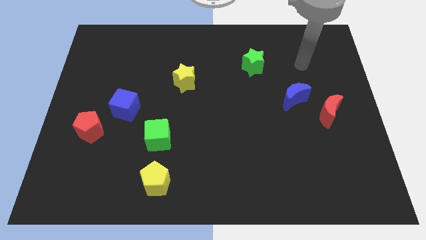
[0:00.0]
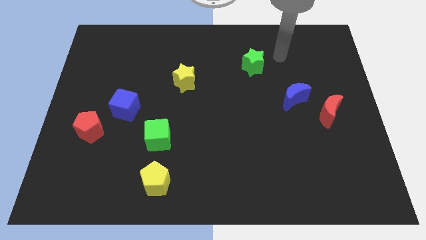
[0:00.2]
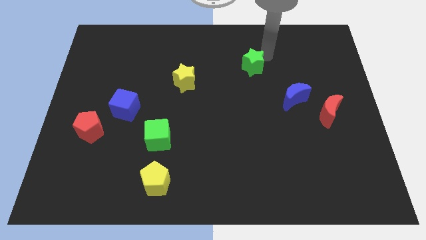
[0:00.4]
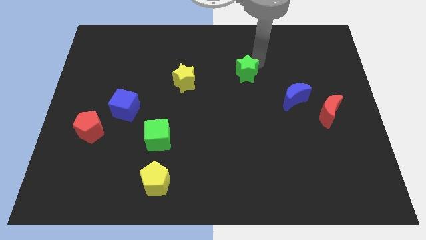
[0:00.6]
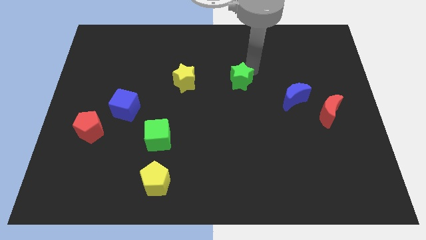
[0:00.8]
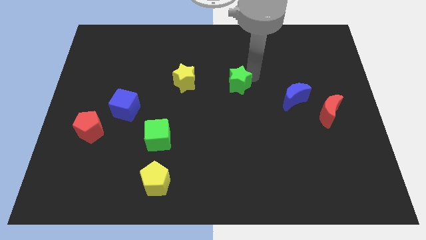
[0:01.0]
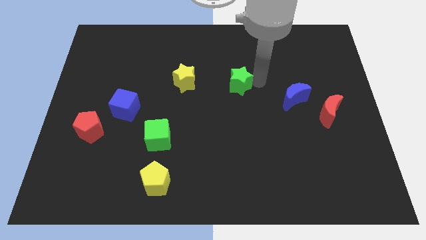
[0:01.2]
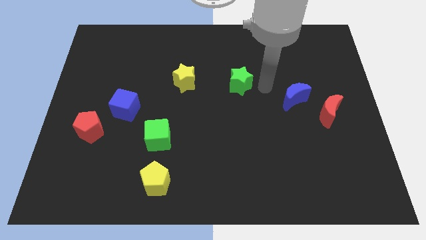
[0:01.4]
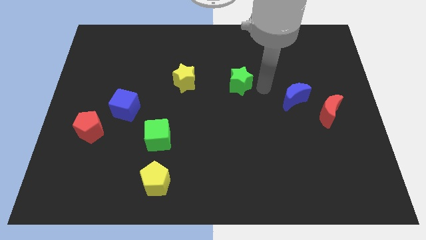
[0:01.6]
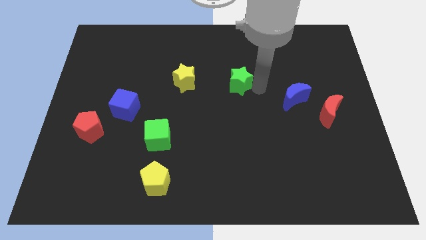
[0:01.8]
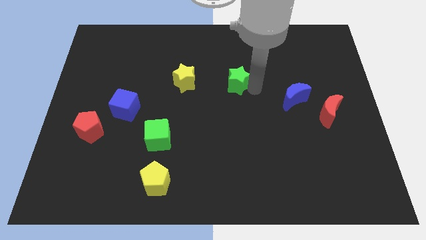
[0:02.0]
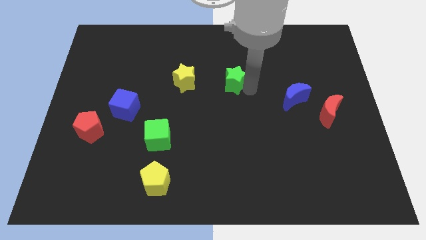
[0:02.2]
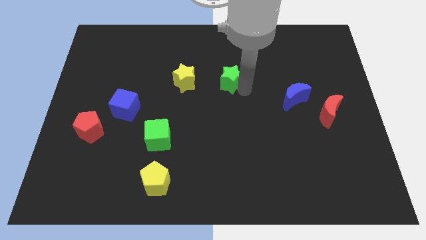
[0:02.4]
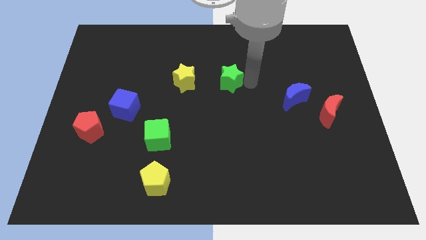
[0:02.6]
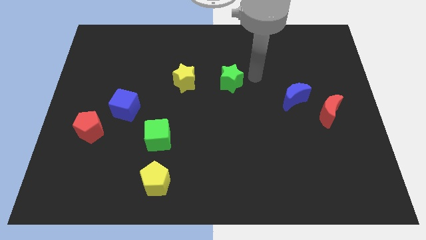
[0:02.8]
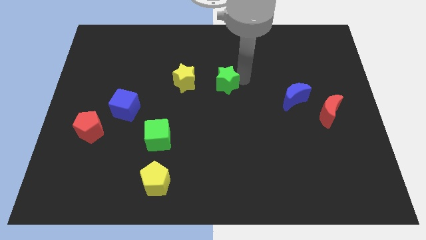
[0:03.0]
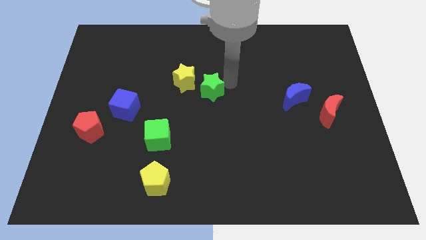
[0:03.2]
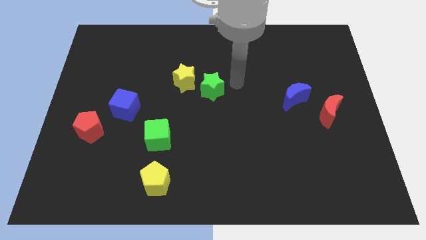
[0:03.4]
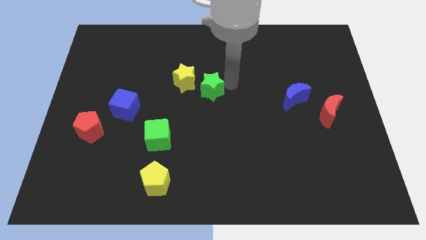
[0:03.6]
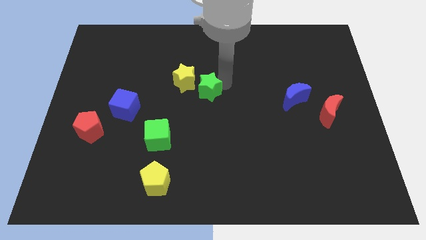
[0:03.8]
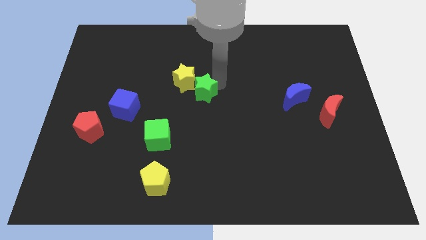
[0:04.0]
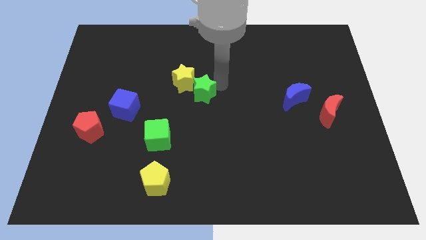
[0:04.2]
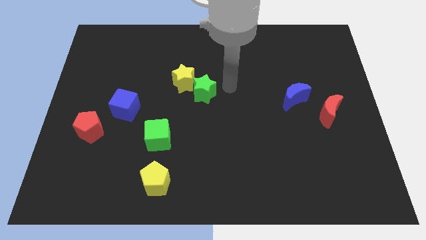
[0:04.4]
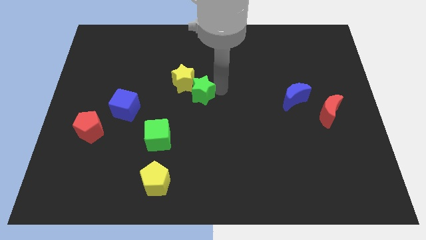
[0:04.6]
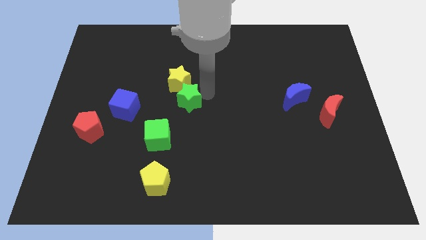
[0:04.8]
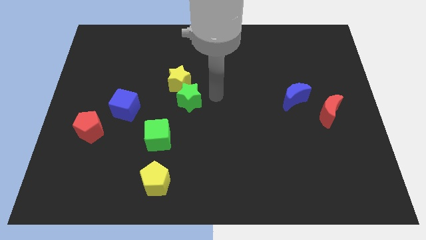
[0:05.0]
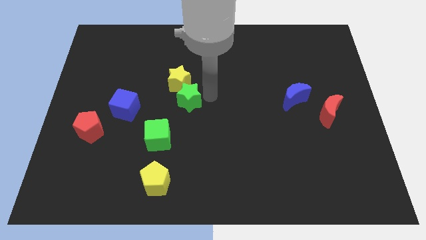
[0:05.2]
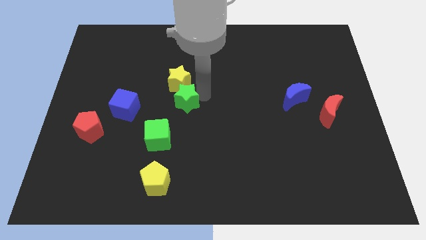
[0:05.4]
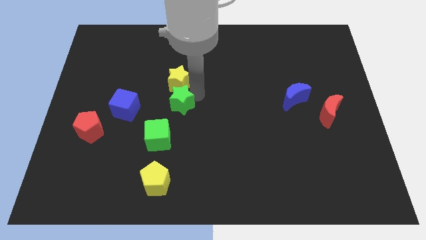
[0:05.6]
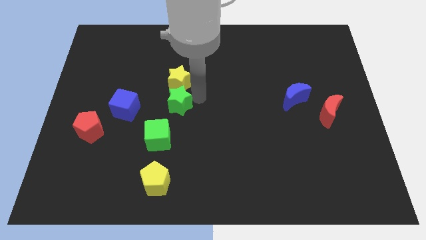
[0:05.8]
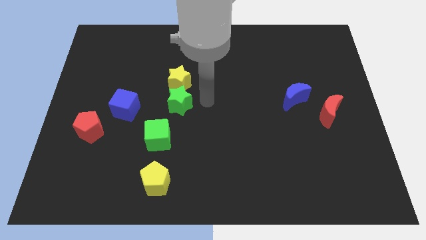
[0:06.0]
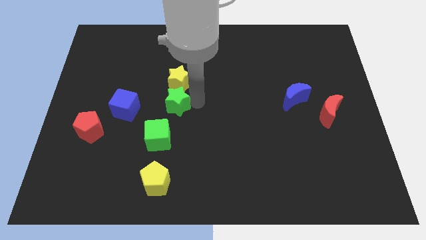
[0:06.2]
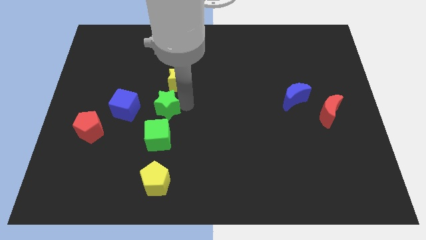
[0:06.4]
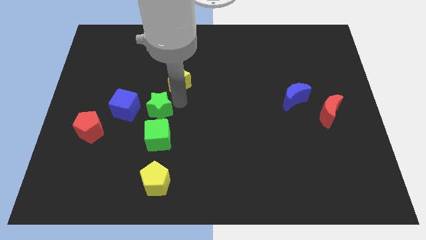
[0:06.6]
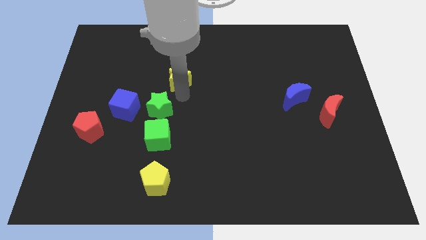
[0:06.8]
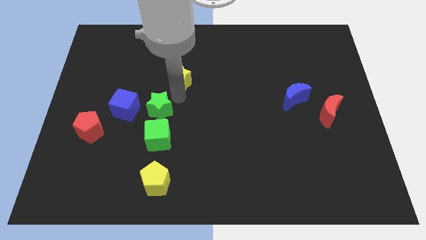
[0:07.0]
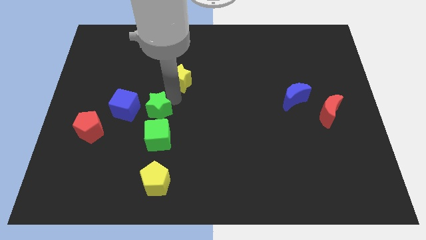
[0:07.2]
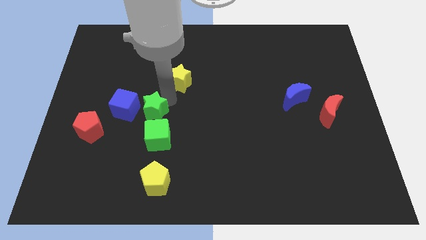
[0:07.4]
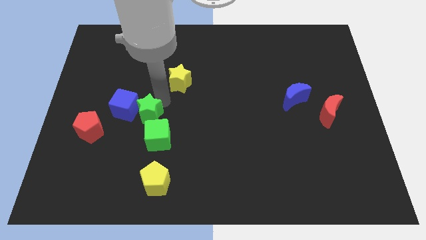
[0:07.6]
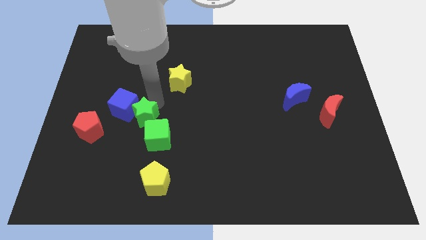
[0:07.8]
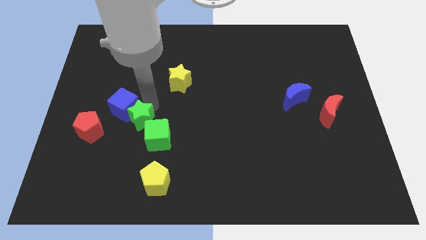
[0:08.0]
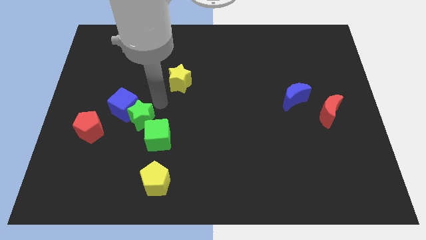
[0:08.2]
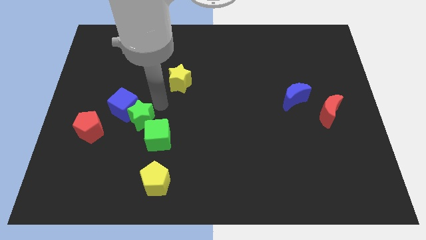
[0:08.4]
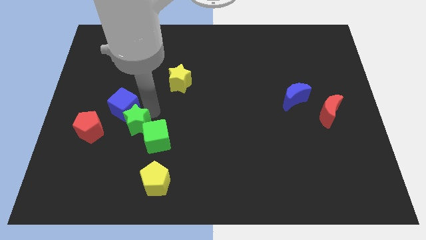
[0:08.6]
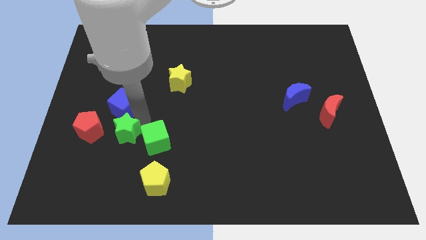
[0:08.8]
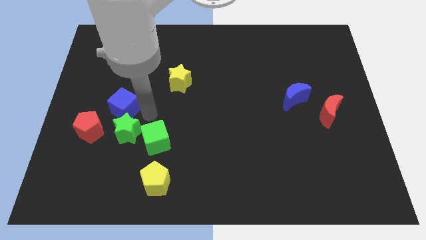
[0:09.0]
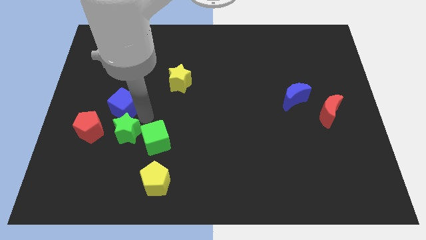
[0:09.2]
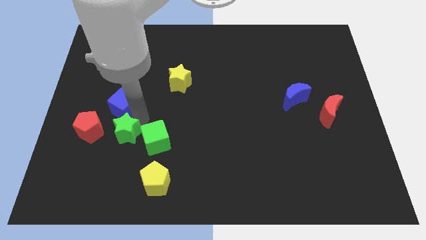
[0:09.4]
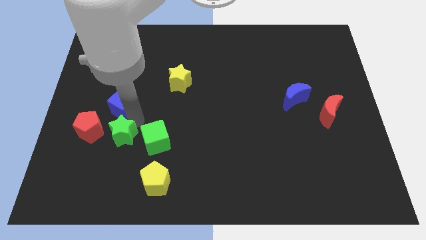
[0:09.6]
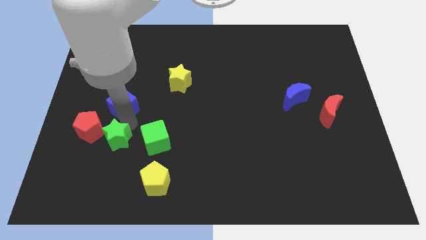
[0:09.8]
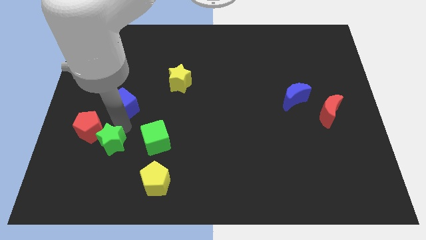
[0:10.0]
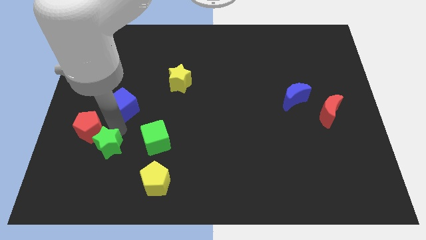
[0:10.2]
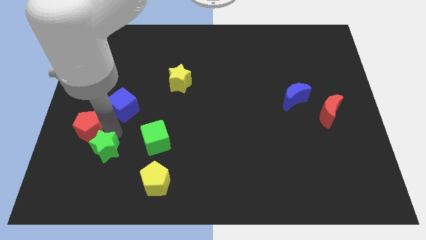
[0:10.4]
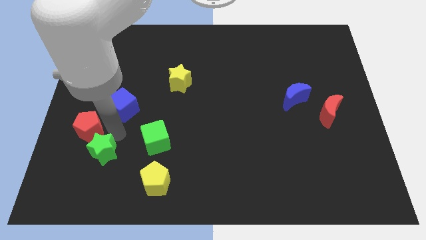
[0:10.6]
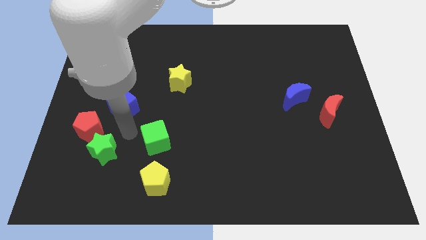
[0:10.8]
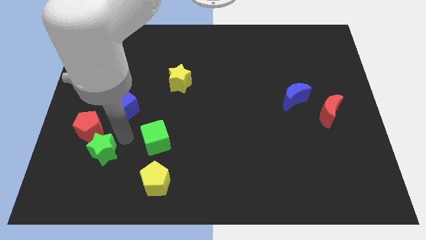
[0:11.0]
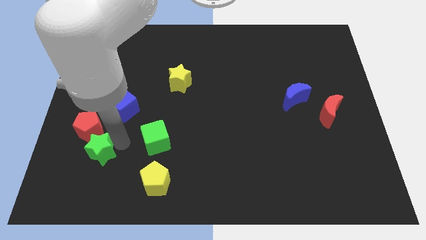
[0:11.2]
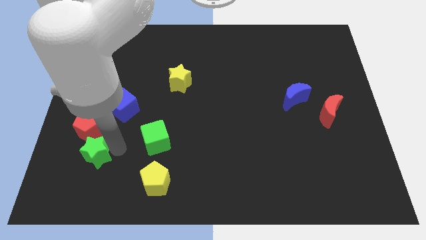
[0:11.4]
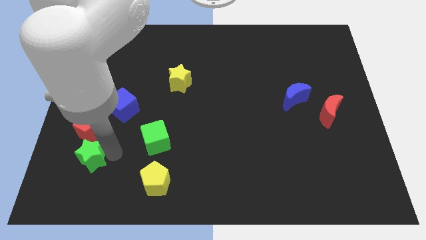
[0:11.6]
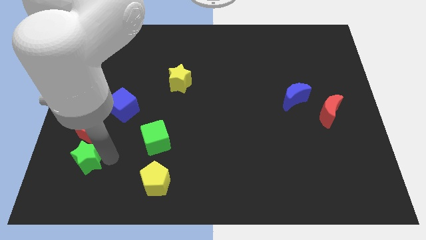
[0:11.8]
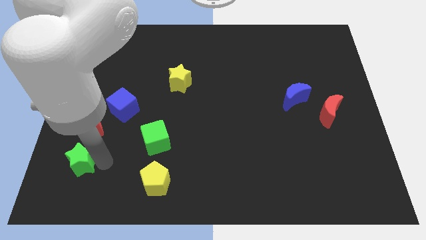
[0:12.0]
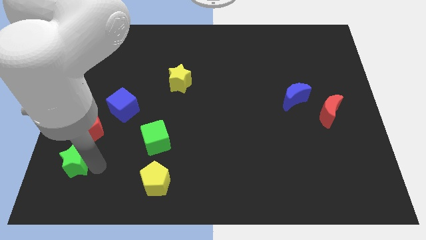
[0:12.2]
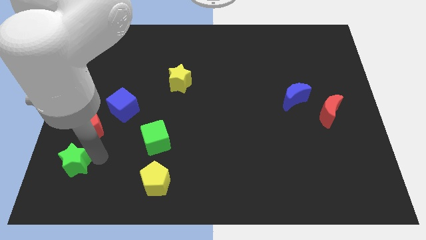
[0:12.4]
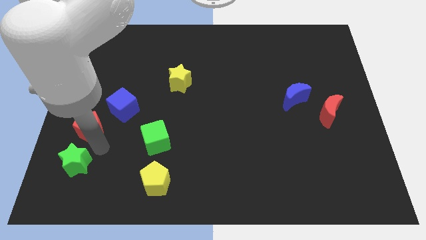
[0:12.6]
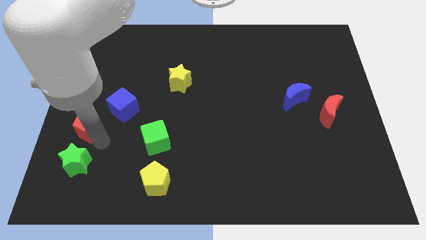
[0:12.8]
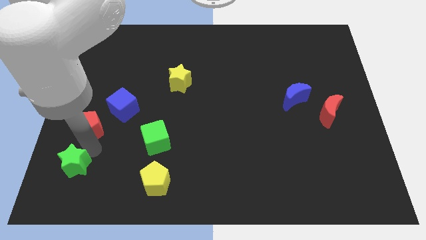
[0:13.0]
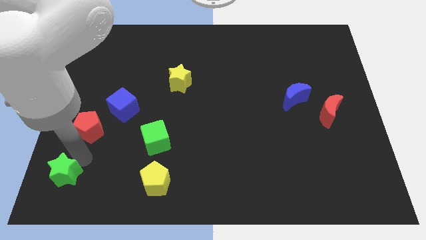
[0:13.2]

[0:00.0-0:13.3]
push the green star to the bottom left of the board
